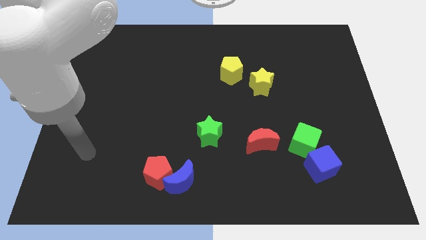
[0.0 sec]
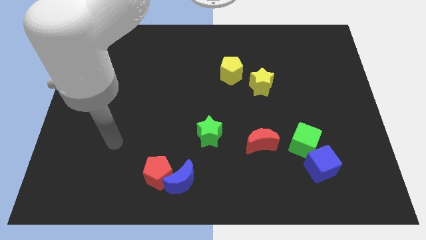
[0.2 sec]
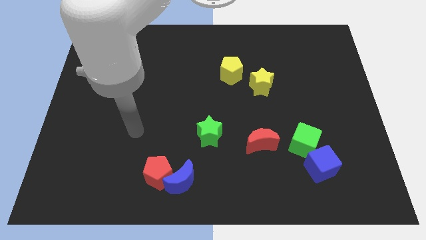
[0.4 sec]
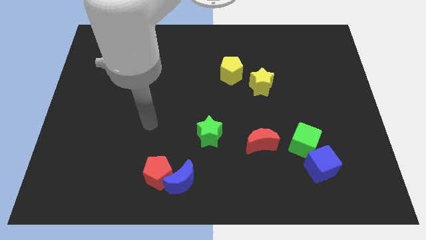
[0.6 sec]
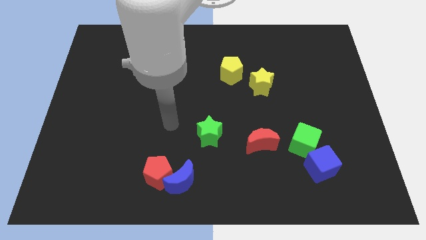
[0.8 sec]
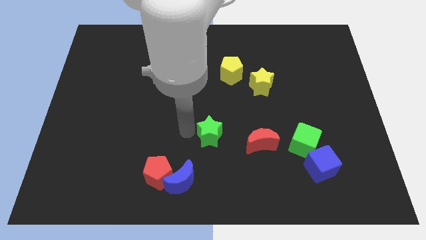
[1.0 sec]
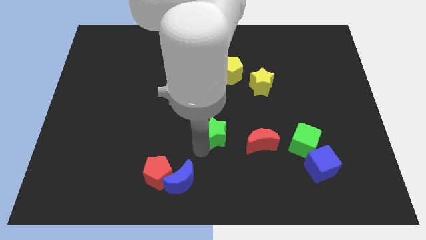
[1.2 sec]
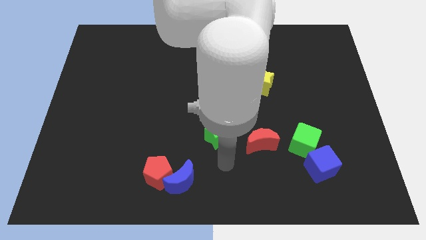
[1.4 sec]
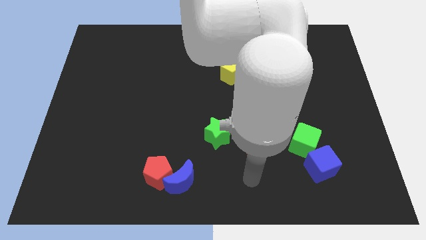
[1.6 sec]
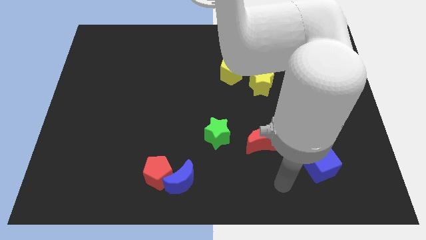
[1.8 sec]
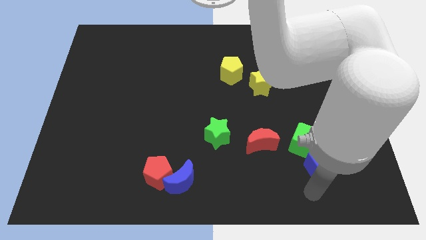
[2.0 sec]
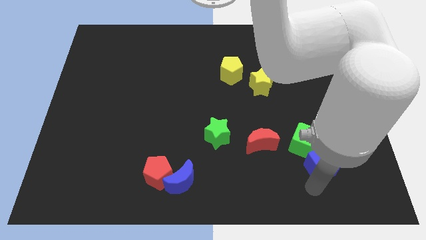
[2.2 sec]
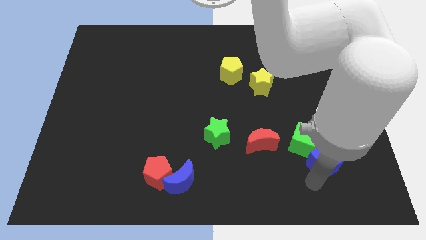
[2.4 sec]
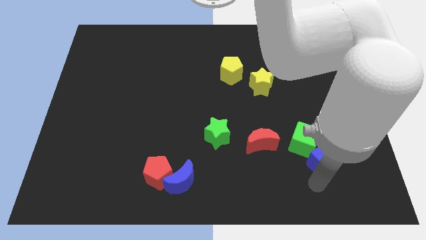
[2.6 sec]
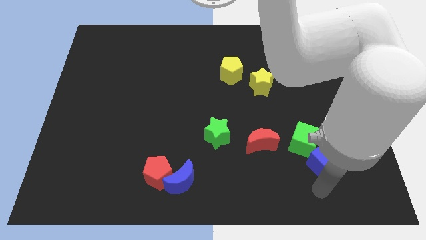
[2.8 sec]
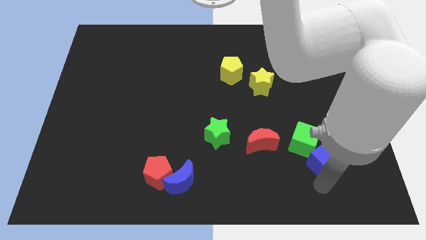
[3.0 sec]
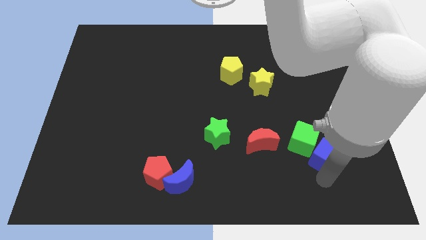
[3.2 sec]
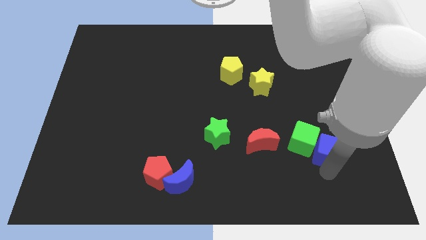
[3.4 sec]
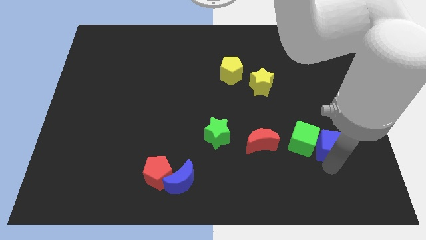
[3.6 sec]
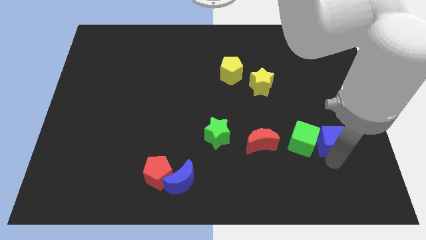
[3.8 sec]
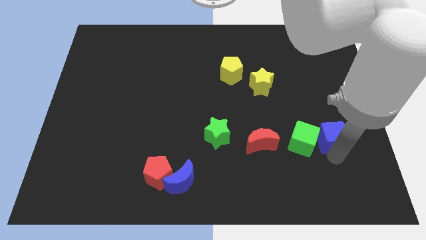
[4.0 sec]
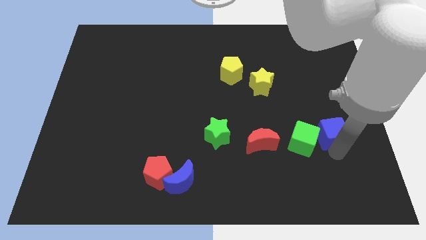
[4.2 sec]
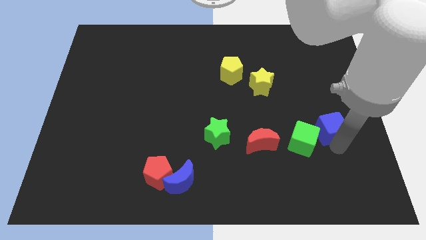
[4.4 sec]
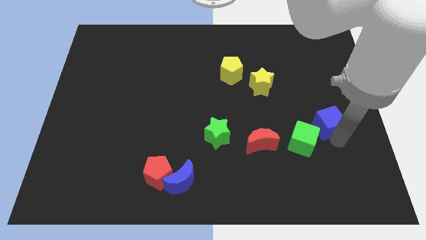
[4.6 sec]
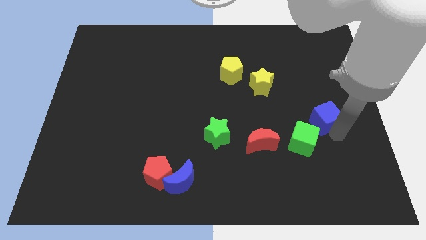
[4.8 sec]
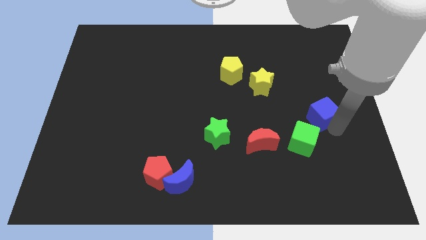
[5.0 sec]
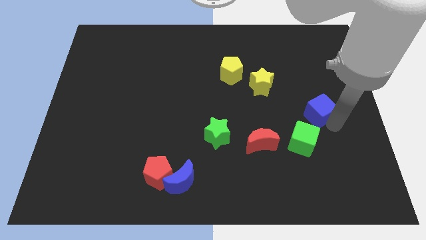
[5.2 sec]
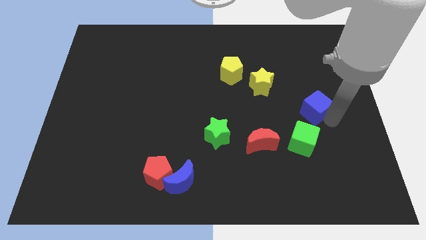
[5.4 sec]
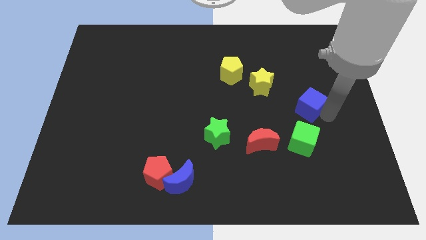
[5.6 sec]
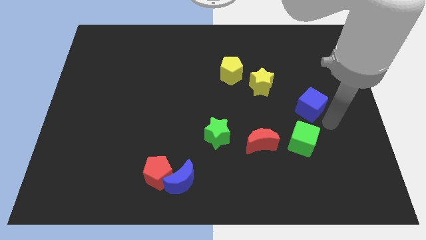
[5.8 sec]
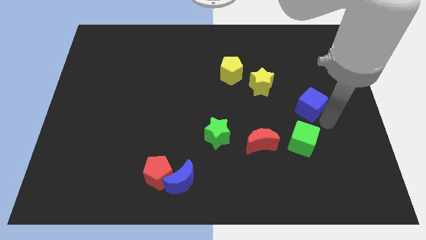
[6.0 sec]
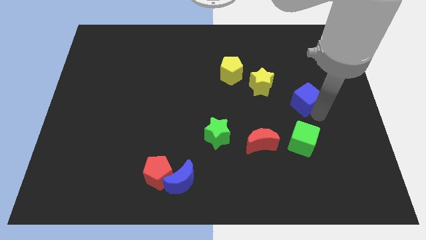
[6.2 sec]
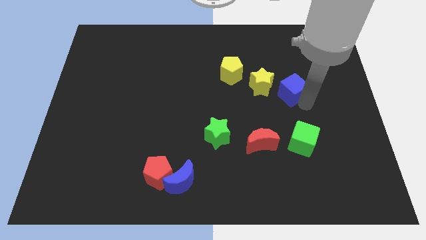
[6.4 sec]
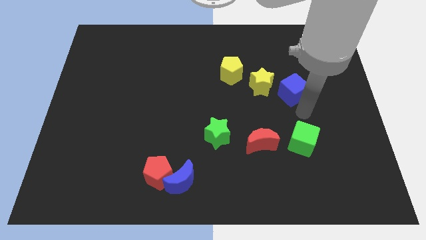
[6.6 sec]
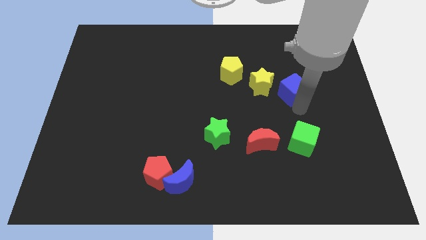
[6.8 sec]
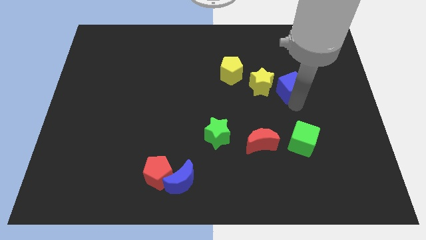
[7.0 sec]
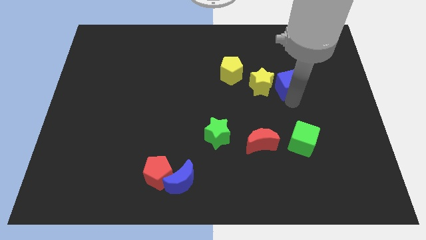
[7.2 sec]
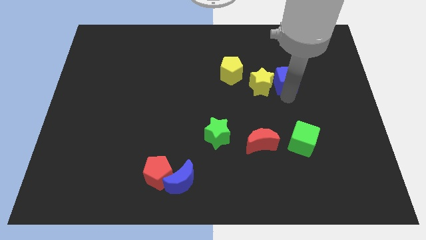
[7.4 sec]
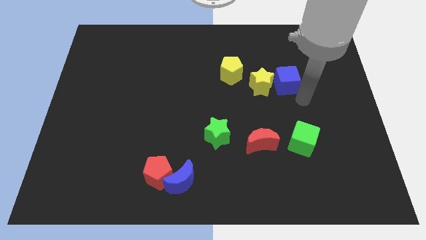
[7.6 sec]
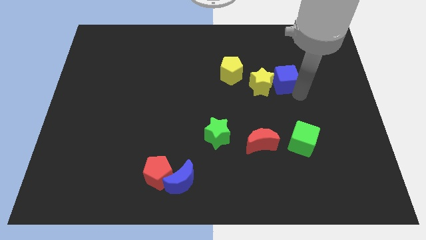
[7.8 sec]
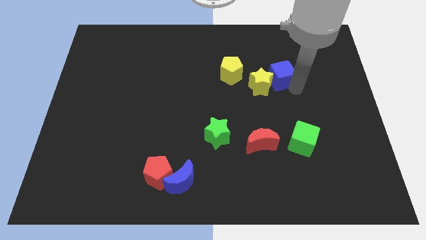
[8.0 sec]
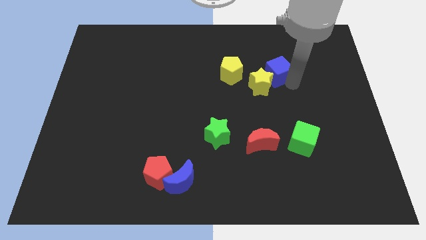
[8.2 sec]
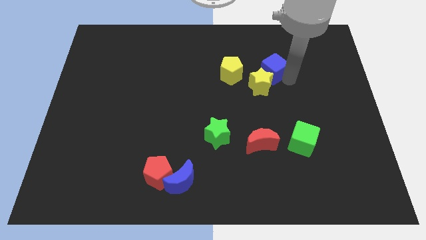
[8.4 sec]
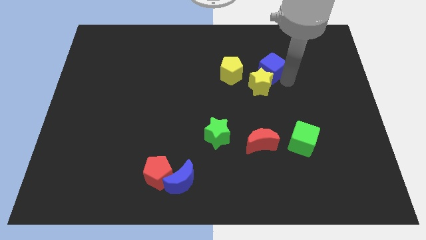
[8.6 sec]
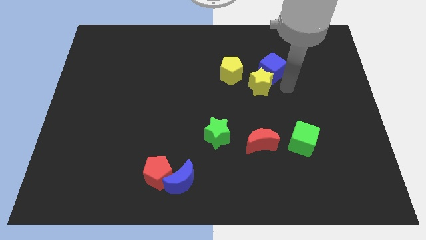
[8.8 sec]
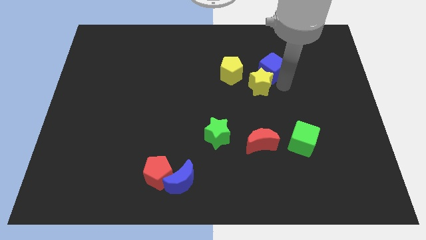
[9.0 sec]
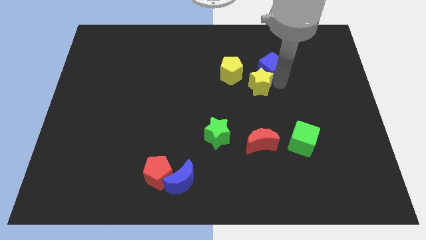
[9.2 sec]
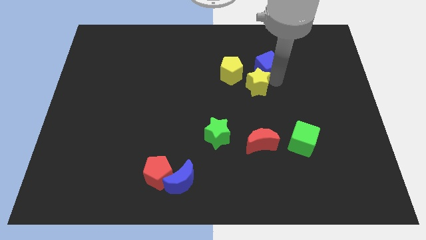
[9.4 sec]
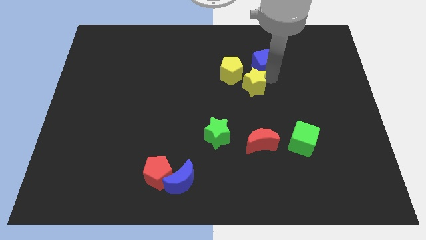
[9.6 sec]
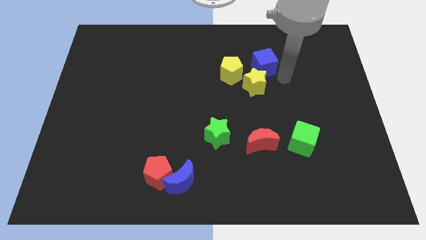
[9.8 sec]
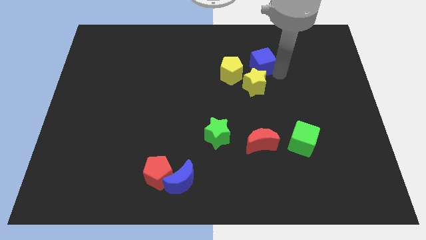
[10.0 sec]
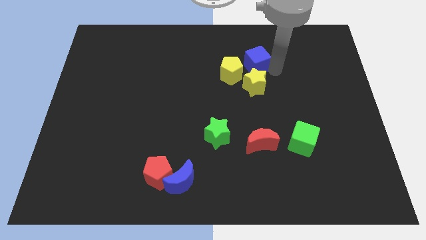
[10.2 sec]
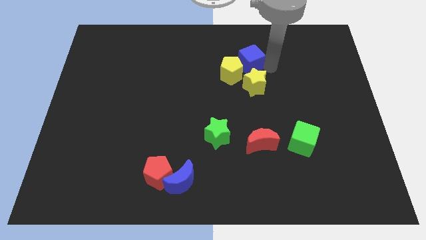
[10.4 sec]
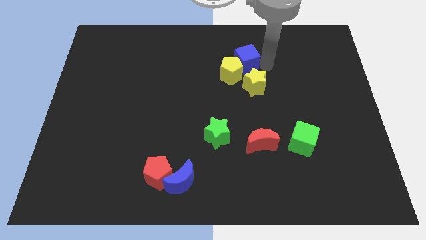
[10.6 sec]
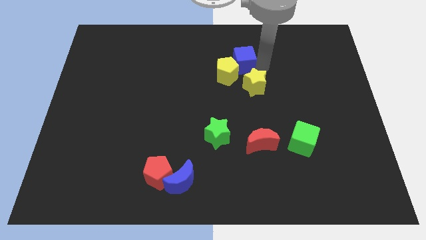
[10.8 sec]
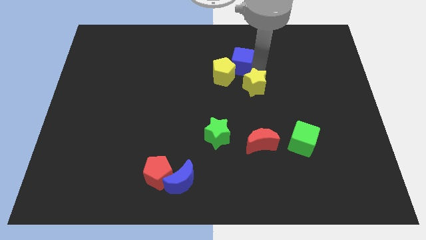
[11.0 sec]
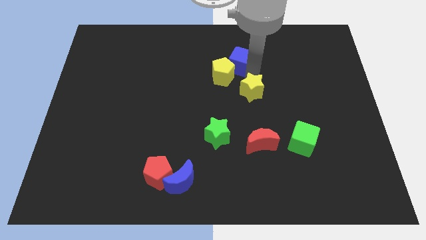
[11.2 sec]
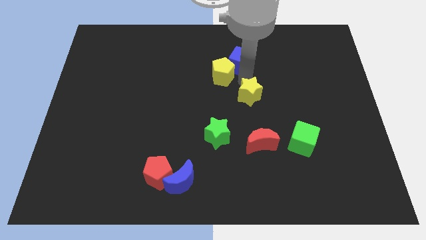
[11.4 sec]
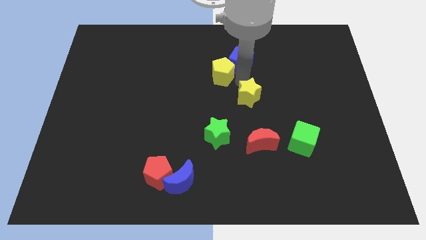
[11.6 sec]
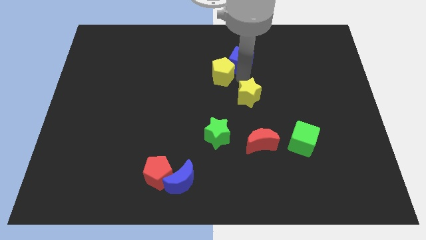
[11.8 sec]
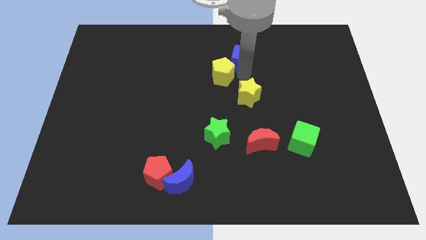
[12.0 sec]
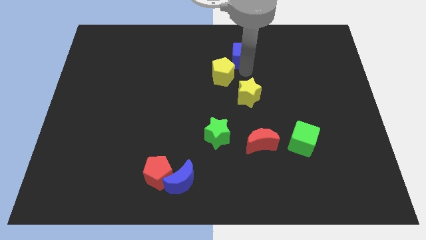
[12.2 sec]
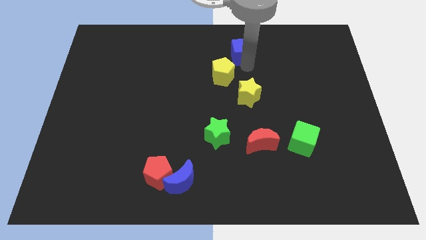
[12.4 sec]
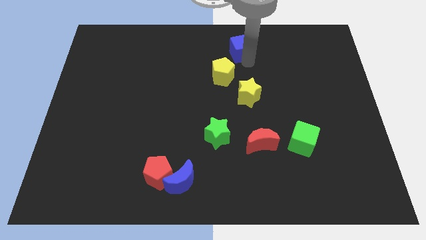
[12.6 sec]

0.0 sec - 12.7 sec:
slide the blue cube to the top side
